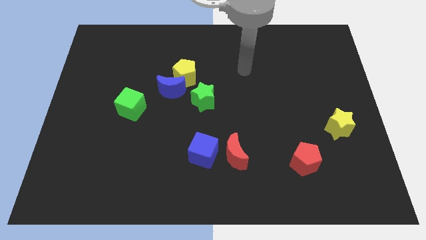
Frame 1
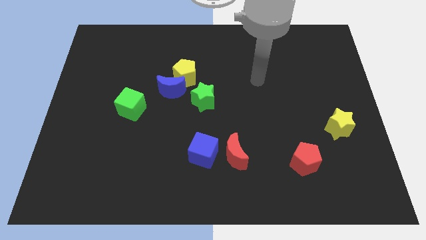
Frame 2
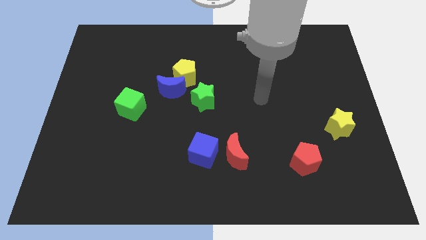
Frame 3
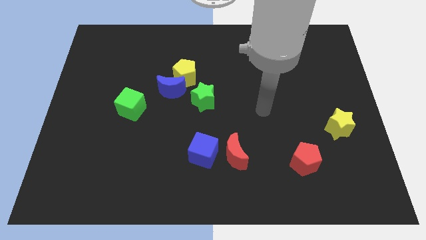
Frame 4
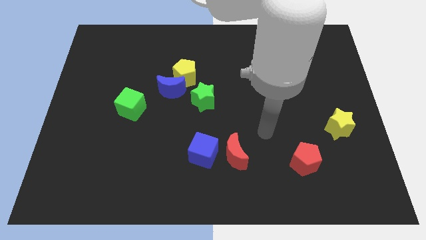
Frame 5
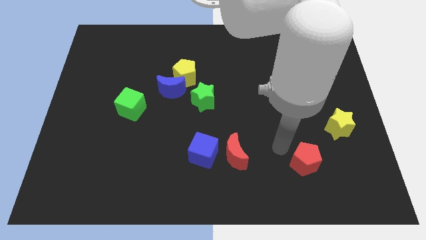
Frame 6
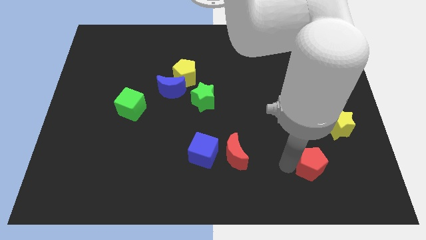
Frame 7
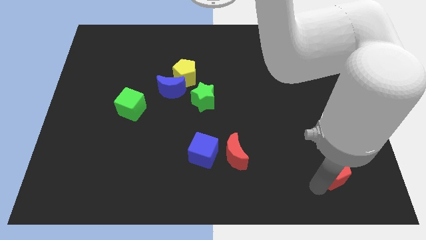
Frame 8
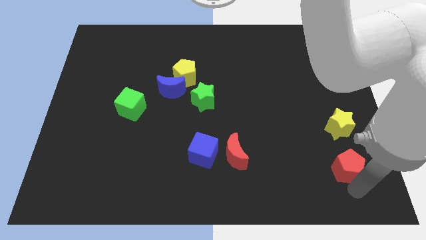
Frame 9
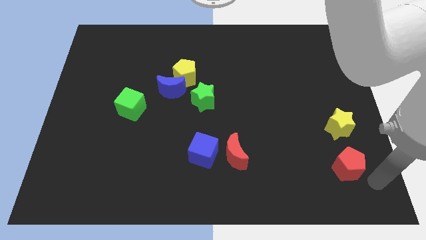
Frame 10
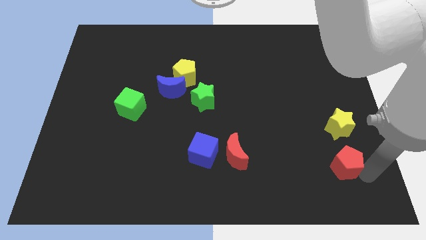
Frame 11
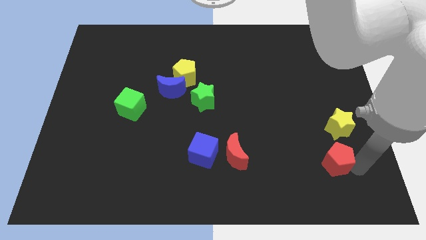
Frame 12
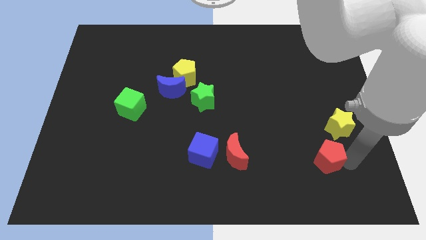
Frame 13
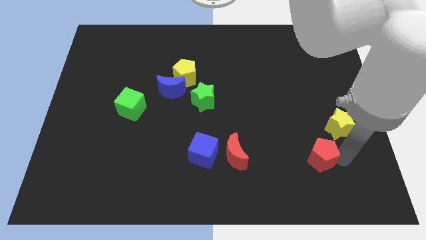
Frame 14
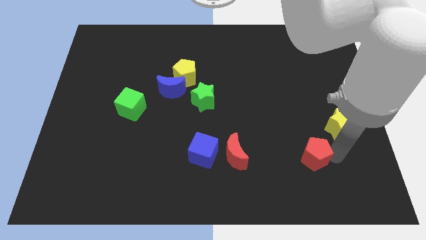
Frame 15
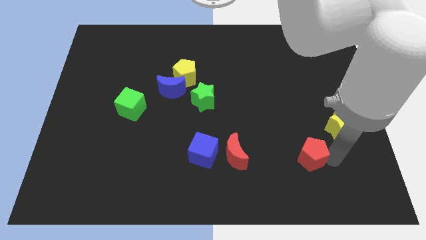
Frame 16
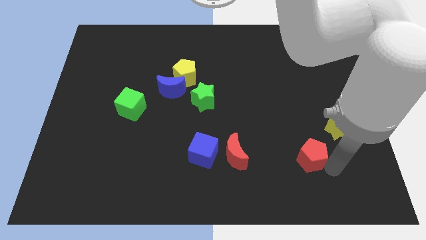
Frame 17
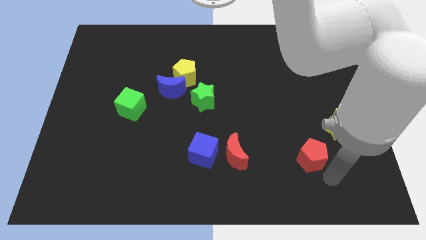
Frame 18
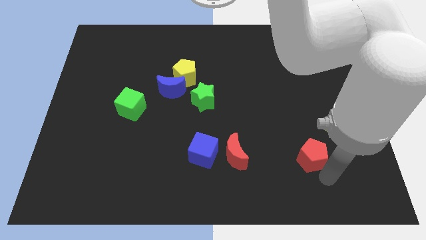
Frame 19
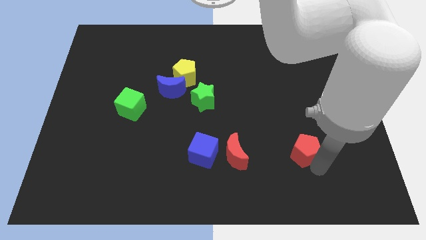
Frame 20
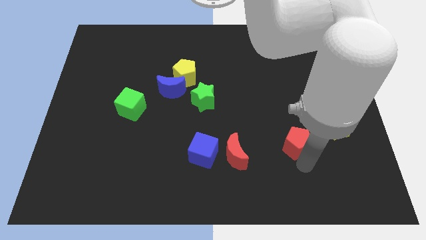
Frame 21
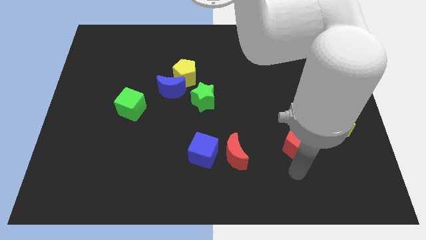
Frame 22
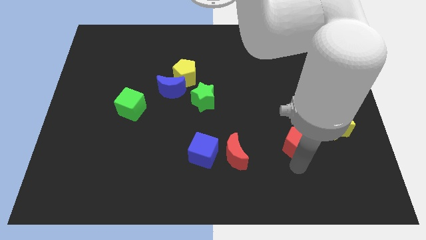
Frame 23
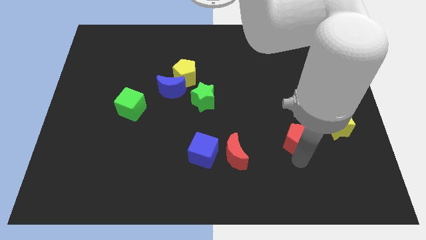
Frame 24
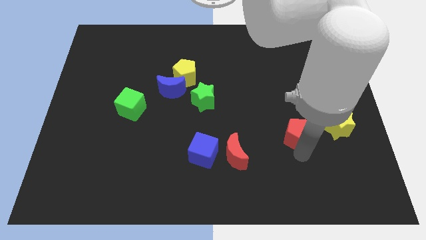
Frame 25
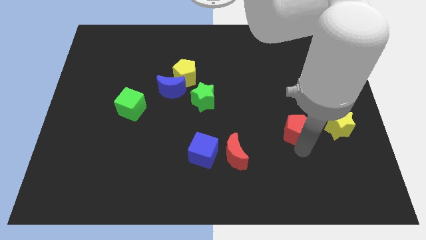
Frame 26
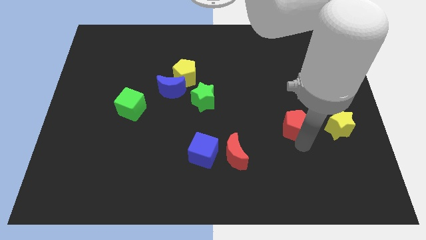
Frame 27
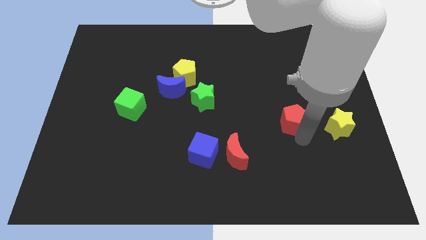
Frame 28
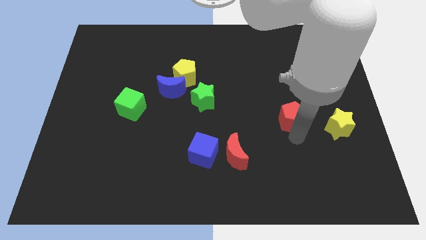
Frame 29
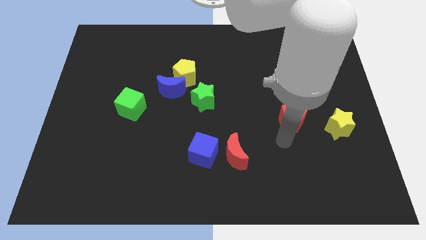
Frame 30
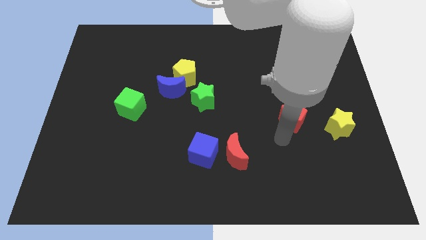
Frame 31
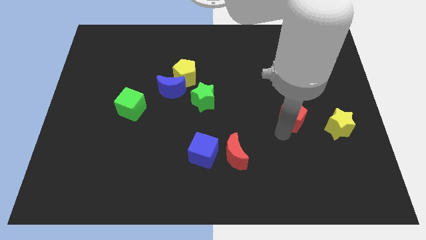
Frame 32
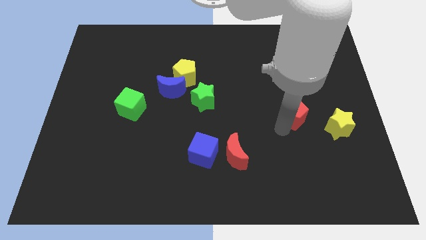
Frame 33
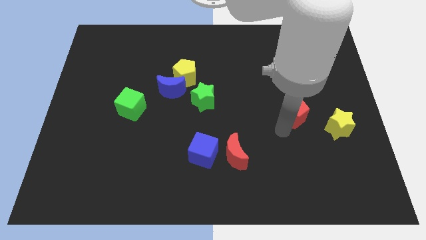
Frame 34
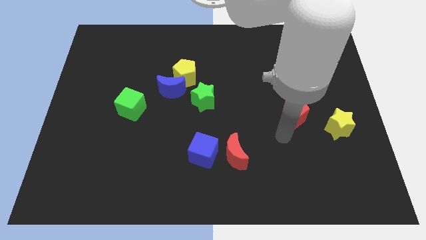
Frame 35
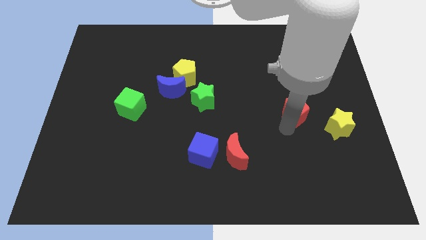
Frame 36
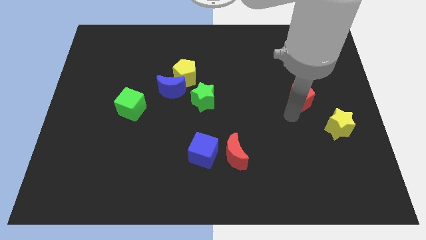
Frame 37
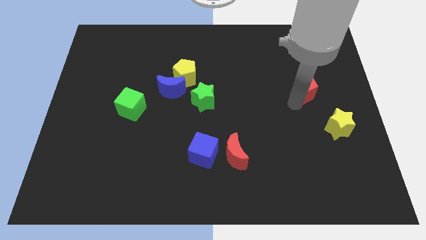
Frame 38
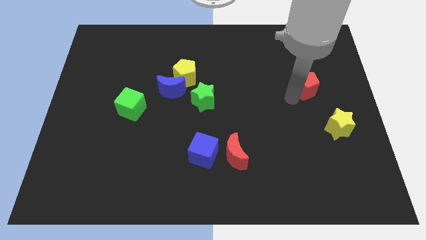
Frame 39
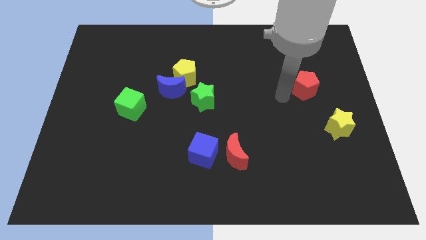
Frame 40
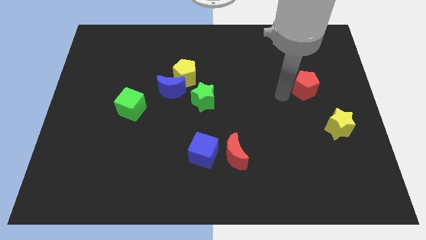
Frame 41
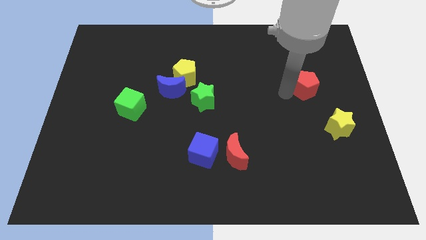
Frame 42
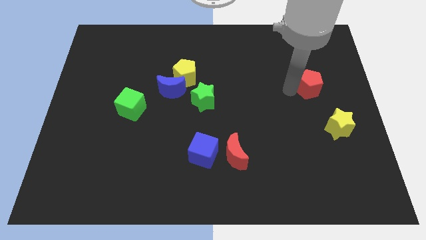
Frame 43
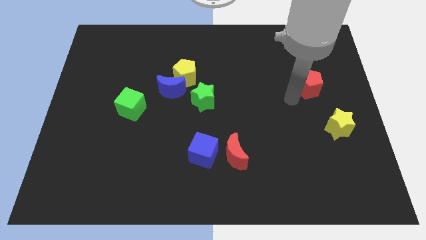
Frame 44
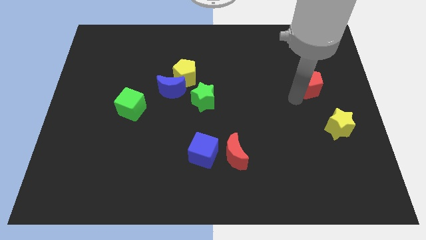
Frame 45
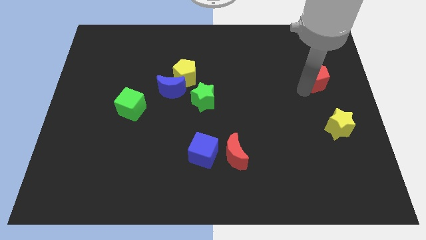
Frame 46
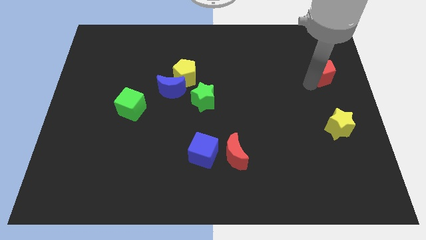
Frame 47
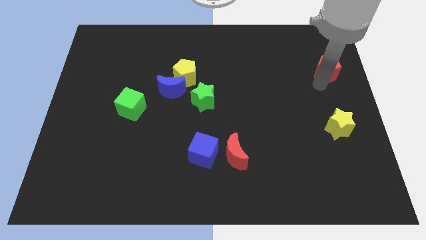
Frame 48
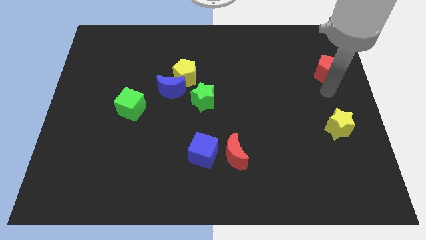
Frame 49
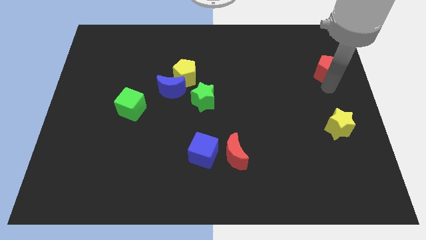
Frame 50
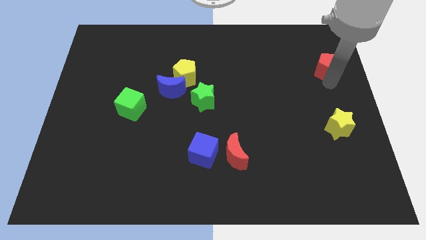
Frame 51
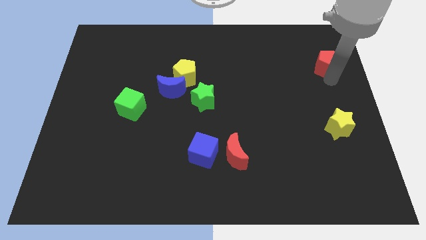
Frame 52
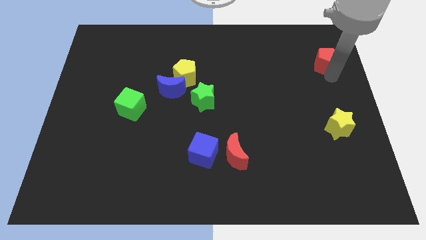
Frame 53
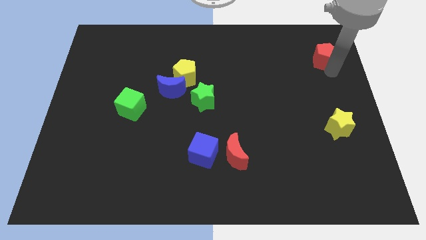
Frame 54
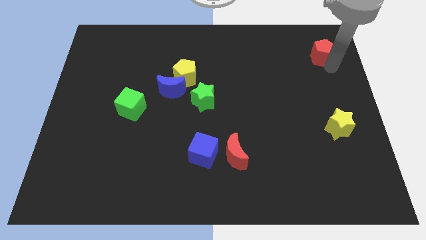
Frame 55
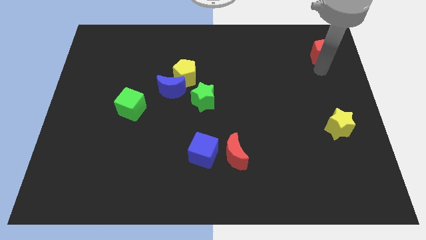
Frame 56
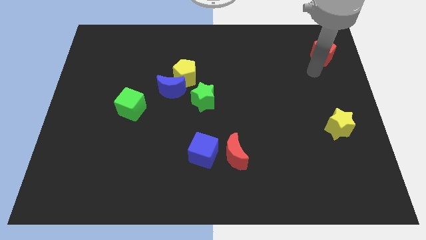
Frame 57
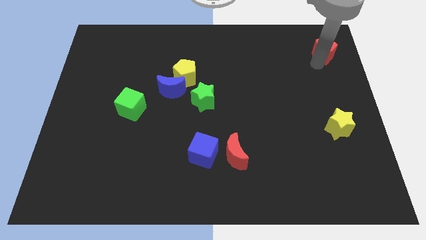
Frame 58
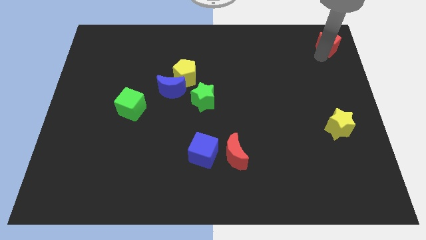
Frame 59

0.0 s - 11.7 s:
put the red pentagon to the top right corner

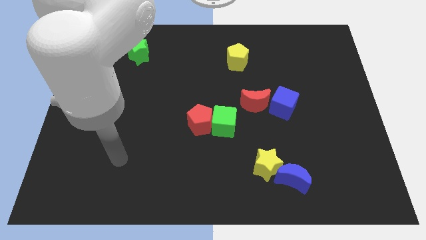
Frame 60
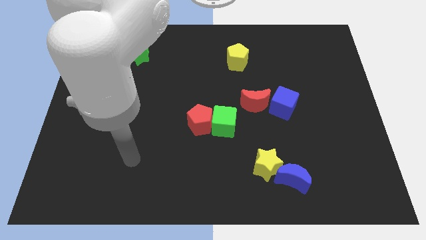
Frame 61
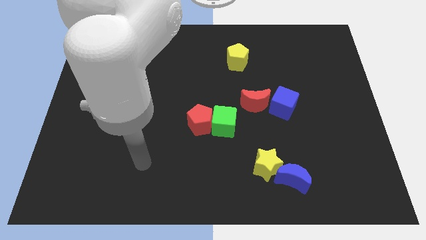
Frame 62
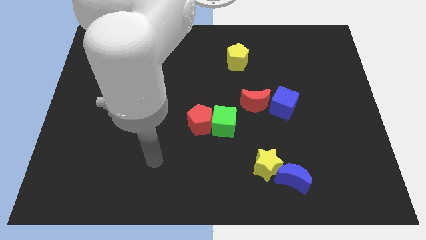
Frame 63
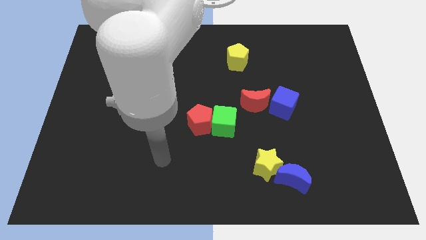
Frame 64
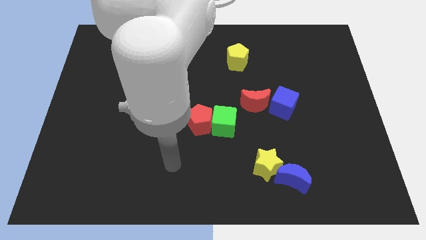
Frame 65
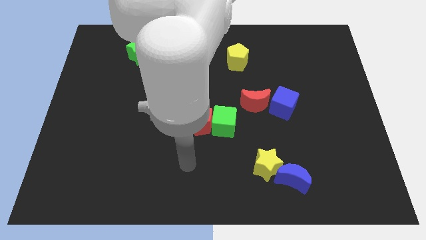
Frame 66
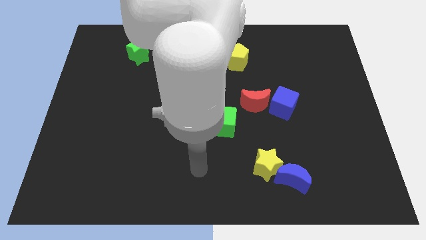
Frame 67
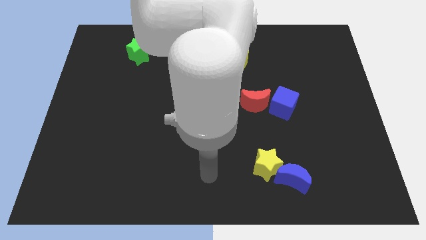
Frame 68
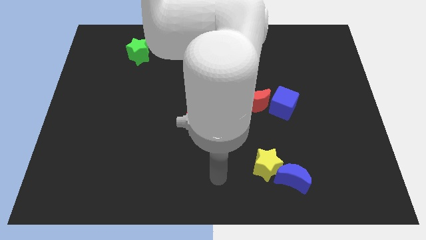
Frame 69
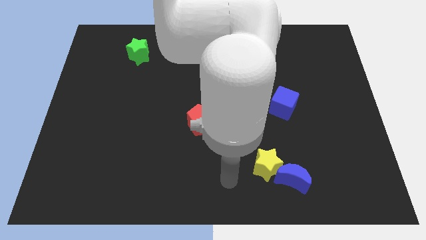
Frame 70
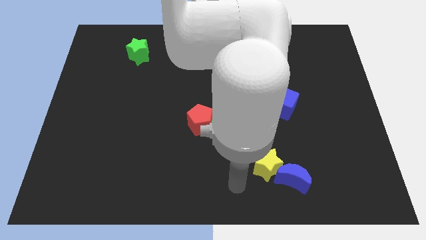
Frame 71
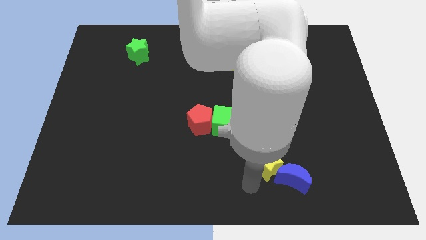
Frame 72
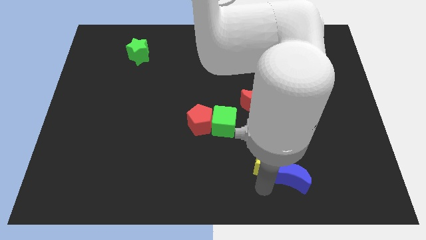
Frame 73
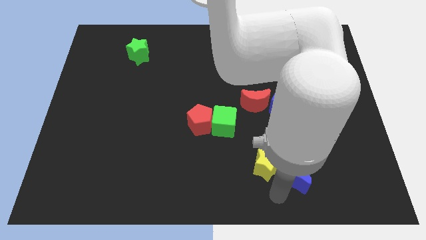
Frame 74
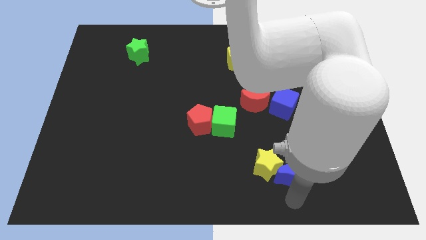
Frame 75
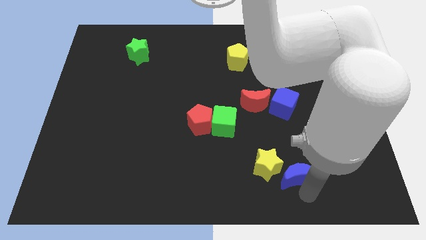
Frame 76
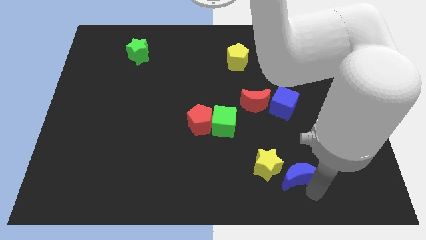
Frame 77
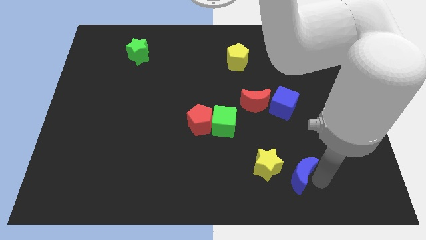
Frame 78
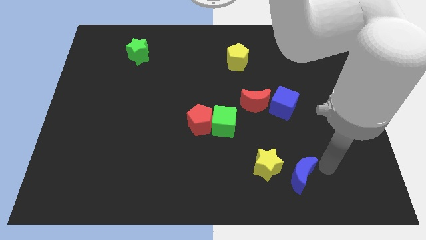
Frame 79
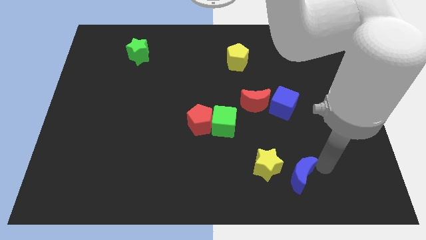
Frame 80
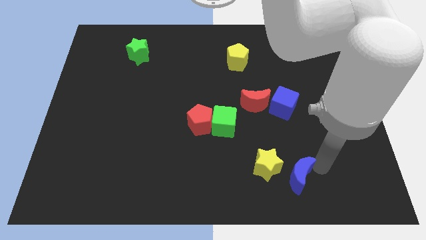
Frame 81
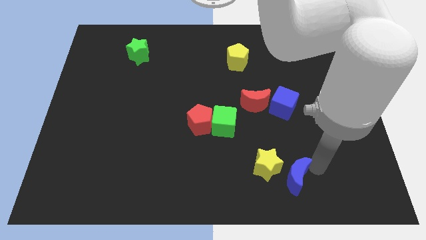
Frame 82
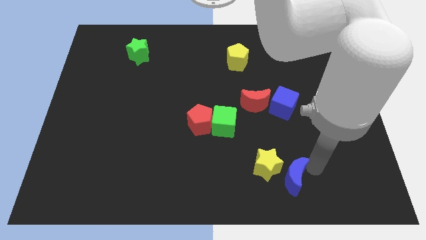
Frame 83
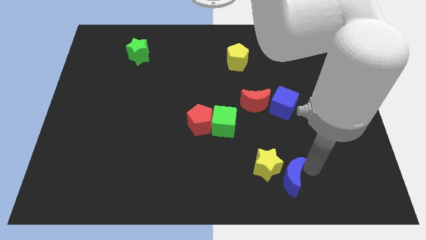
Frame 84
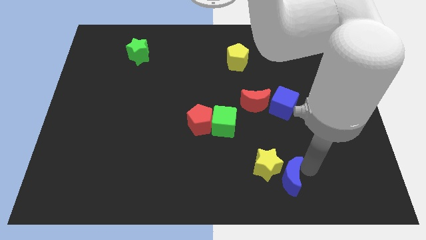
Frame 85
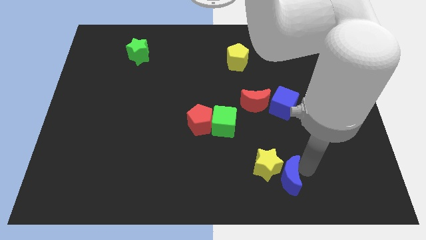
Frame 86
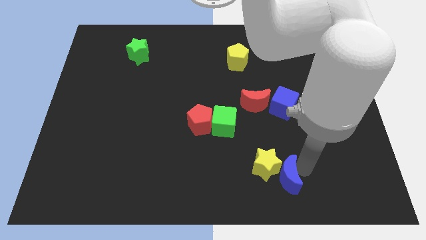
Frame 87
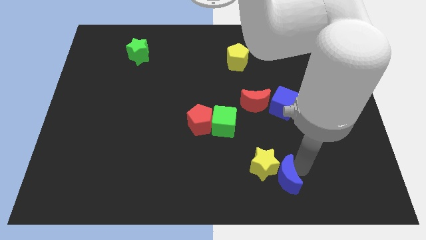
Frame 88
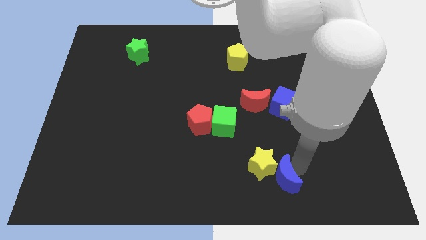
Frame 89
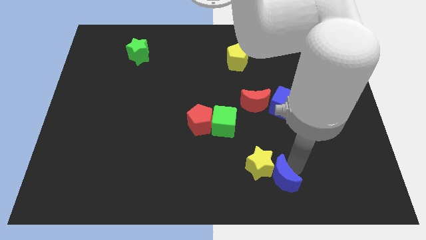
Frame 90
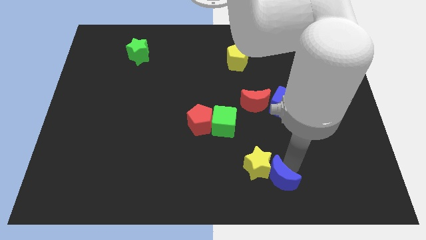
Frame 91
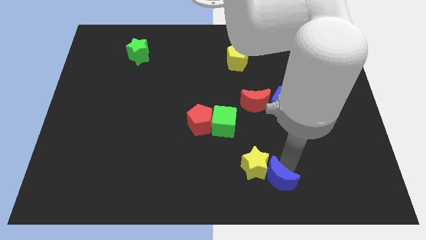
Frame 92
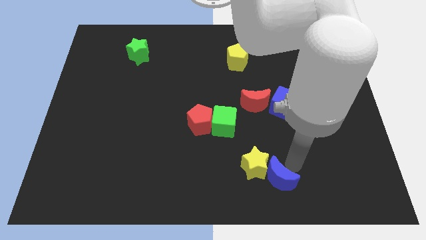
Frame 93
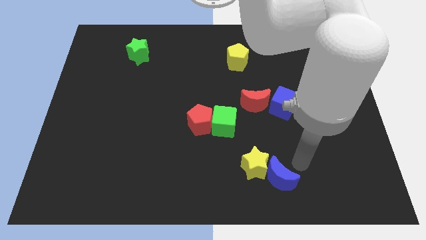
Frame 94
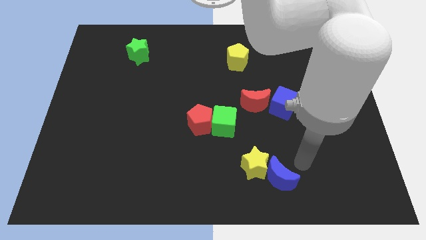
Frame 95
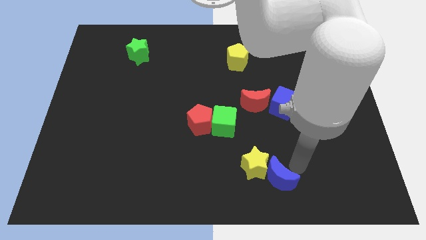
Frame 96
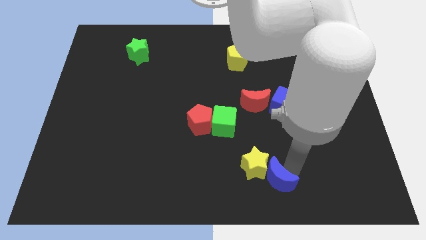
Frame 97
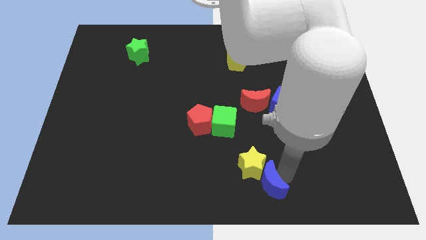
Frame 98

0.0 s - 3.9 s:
put the blue moon to the bottom
